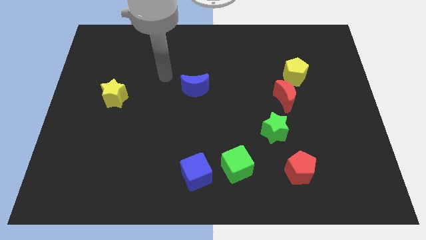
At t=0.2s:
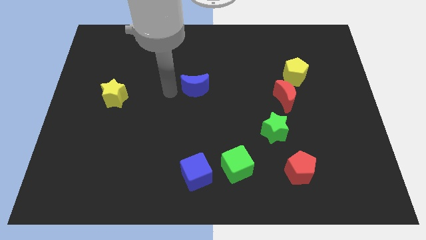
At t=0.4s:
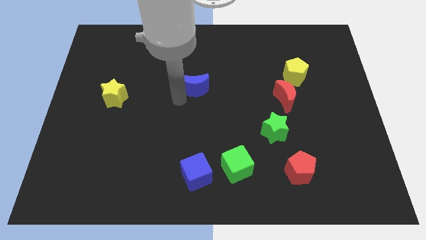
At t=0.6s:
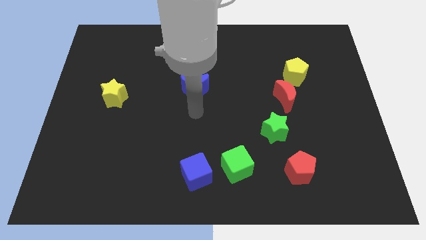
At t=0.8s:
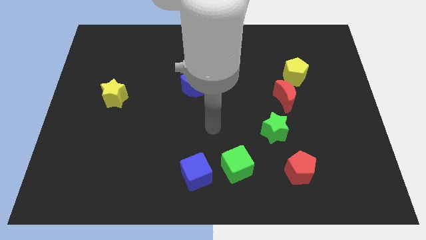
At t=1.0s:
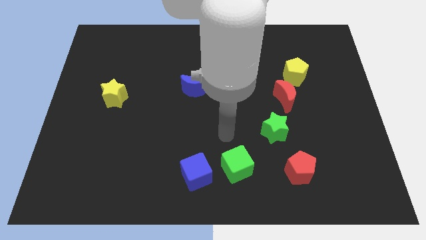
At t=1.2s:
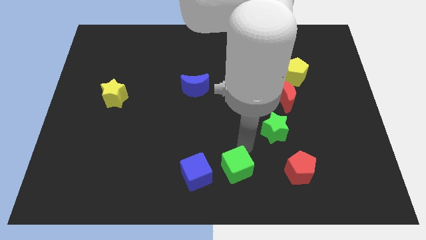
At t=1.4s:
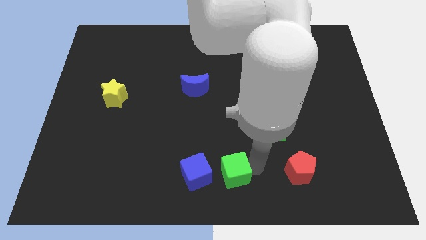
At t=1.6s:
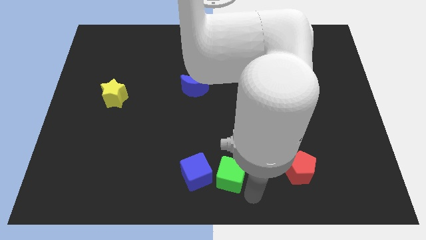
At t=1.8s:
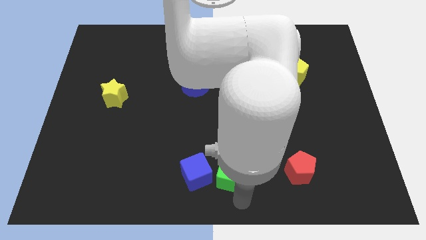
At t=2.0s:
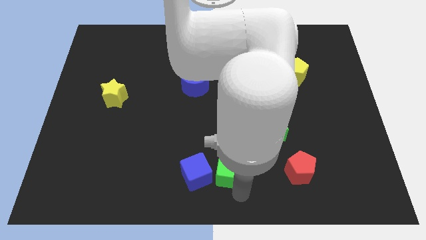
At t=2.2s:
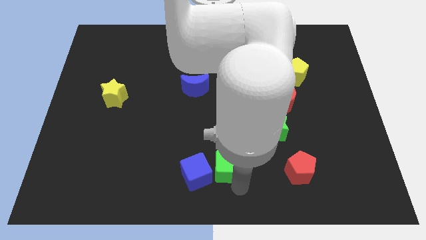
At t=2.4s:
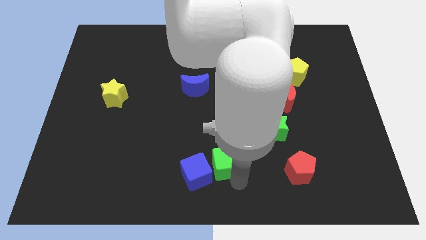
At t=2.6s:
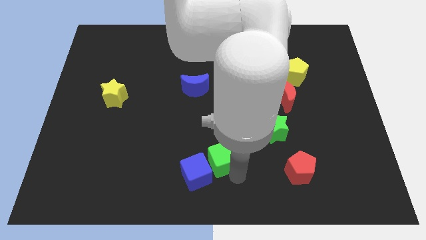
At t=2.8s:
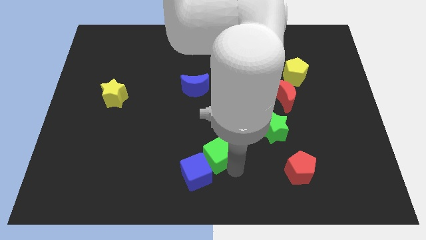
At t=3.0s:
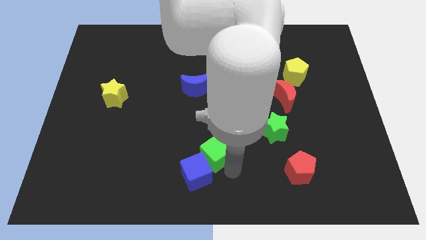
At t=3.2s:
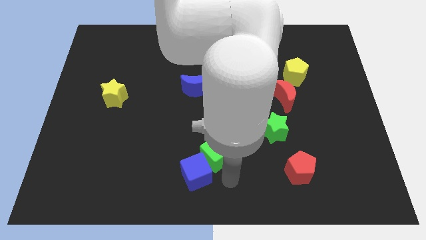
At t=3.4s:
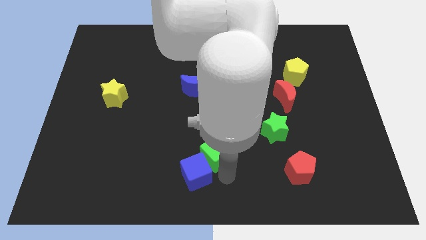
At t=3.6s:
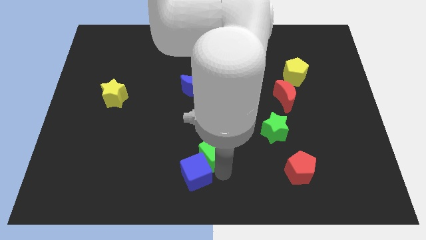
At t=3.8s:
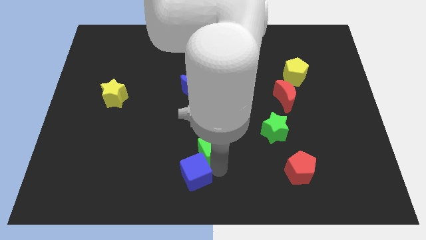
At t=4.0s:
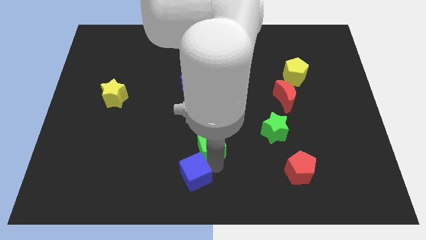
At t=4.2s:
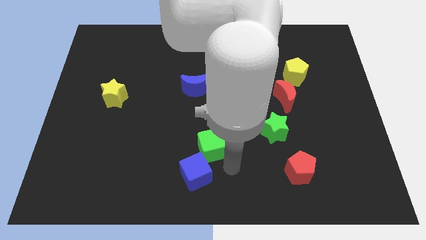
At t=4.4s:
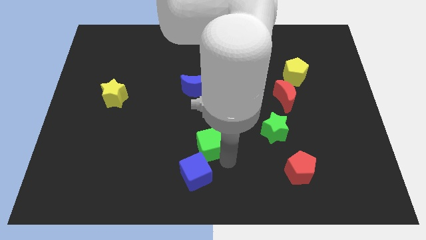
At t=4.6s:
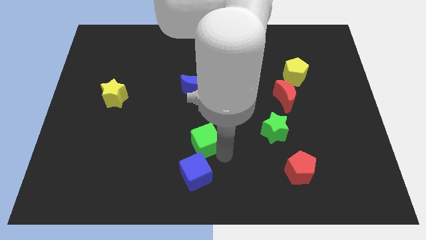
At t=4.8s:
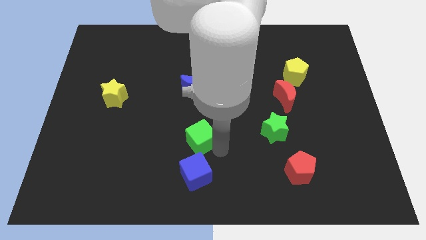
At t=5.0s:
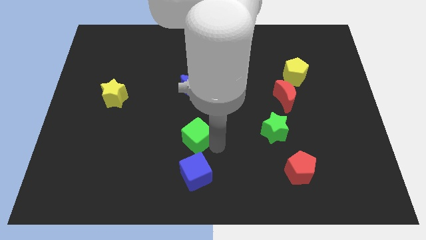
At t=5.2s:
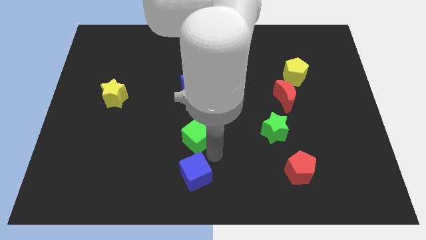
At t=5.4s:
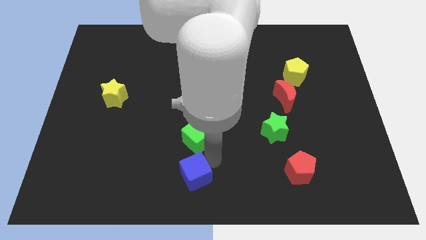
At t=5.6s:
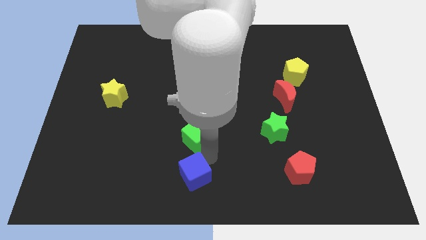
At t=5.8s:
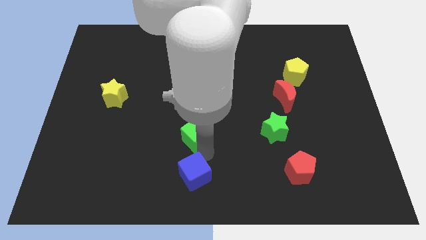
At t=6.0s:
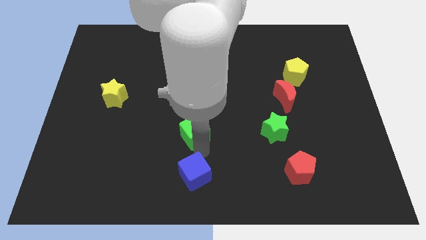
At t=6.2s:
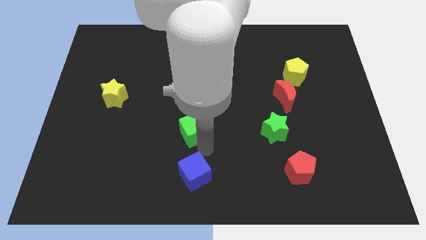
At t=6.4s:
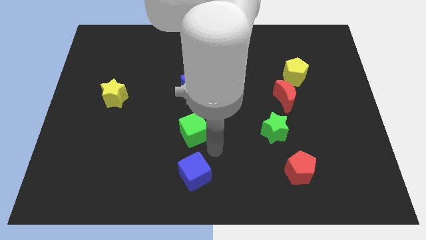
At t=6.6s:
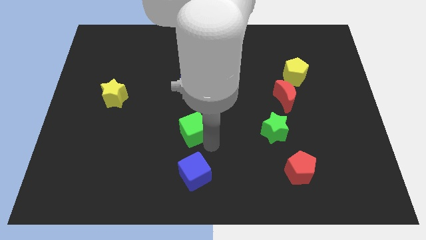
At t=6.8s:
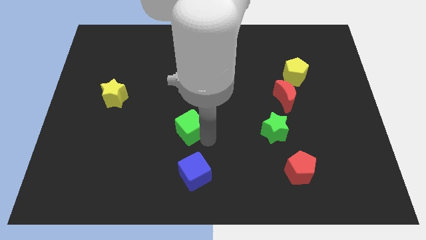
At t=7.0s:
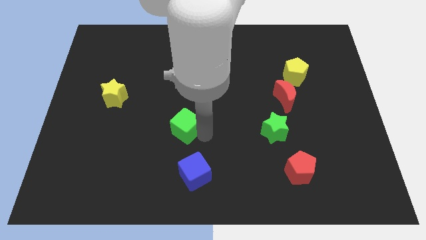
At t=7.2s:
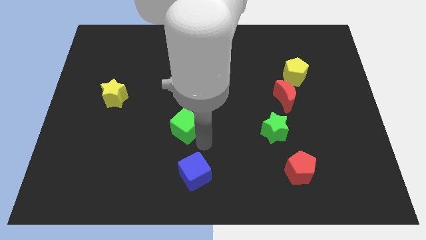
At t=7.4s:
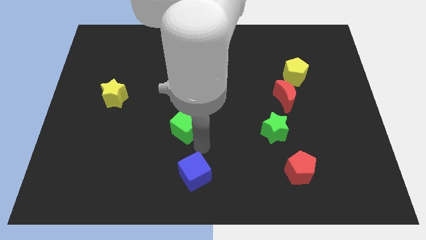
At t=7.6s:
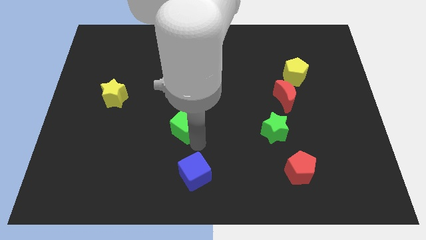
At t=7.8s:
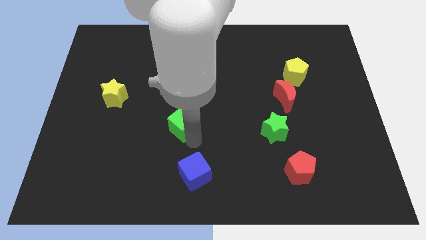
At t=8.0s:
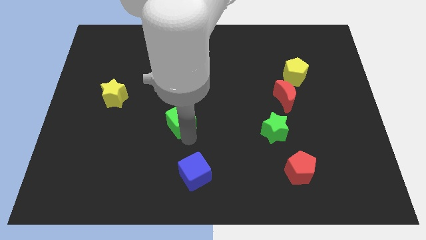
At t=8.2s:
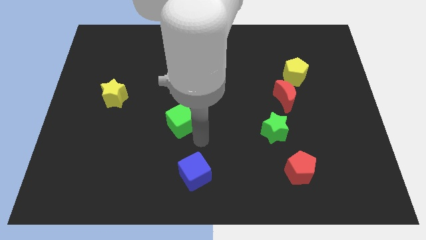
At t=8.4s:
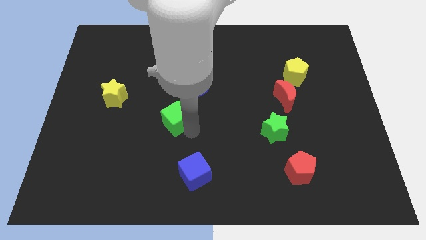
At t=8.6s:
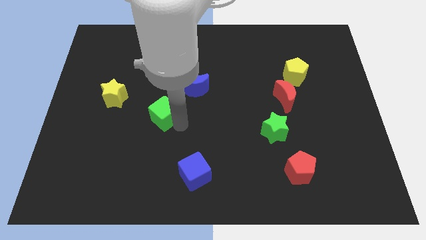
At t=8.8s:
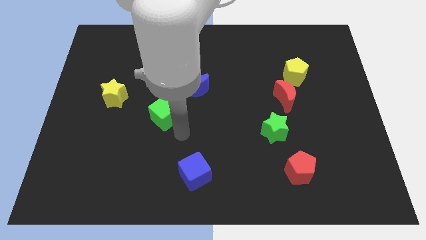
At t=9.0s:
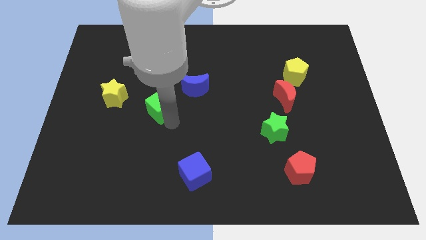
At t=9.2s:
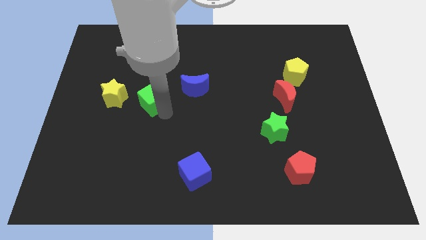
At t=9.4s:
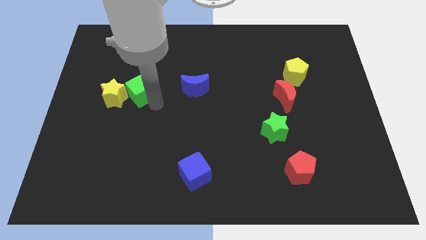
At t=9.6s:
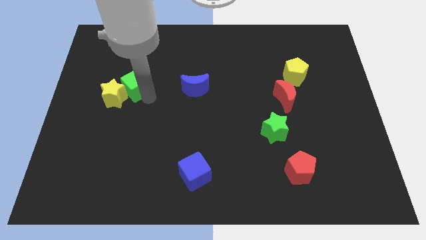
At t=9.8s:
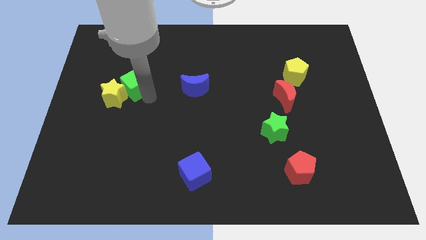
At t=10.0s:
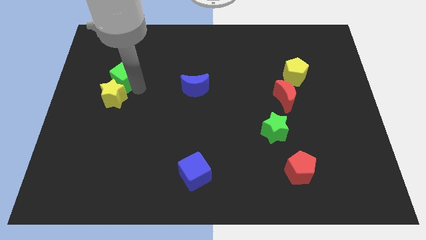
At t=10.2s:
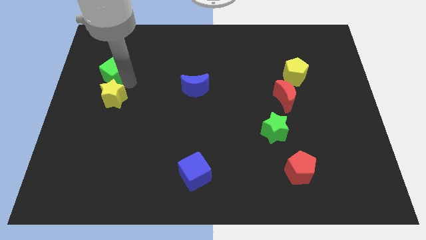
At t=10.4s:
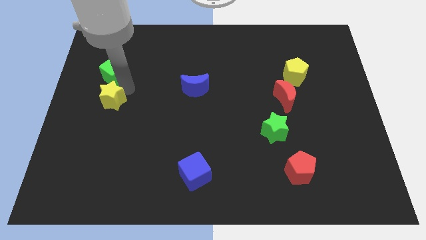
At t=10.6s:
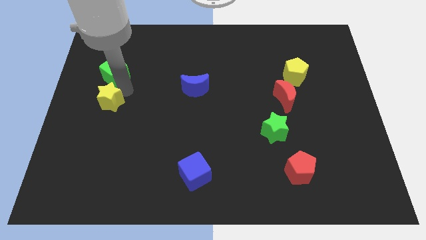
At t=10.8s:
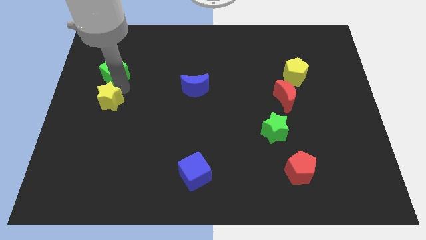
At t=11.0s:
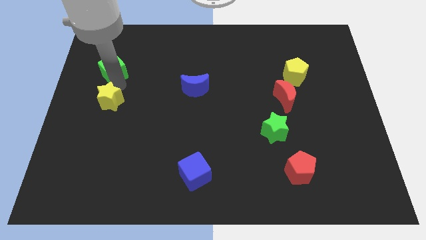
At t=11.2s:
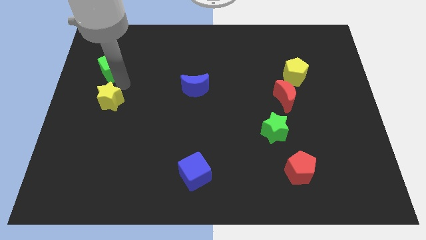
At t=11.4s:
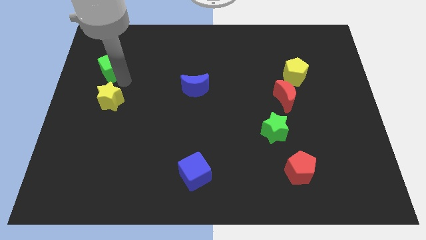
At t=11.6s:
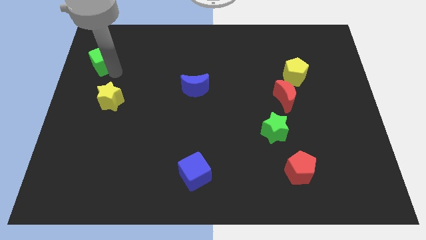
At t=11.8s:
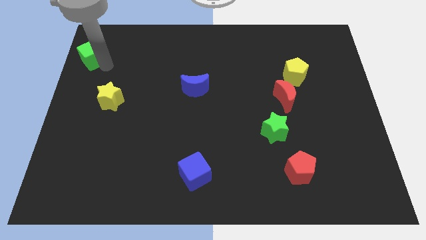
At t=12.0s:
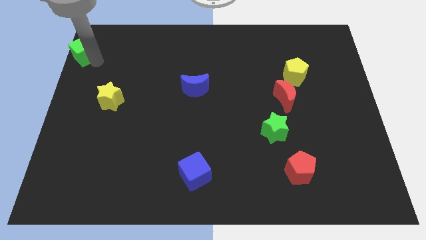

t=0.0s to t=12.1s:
put the green cube to the top left of the board

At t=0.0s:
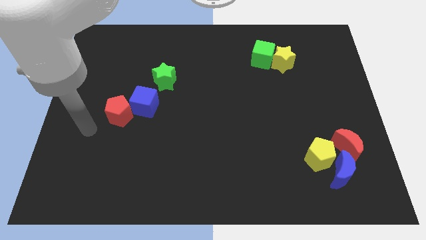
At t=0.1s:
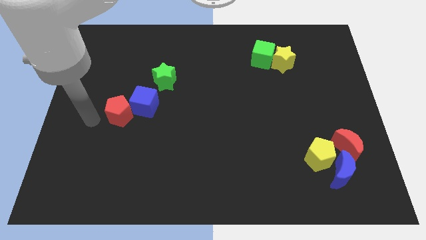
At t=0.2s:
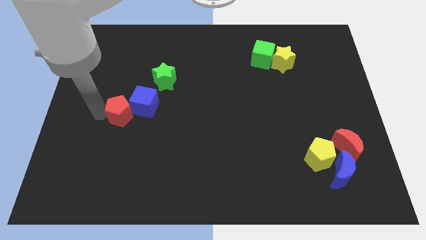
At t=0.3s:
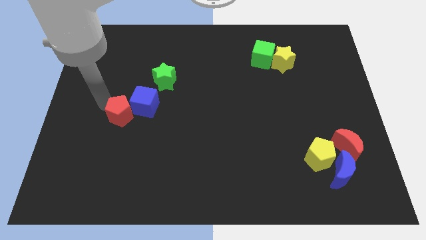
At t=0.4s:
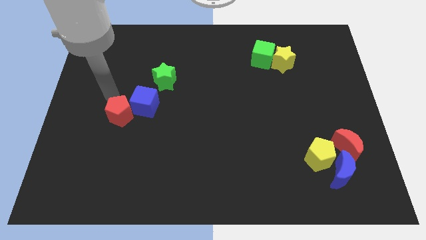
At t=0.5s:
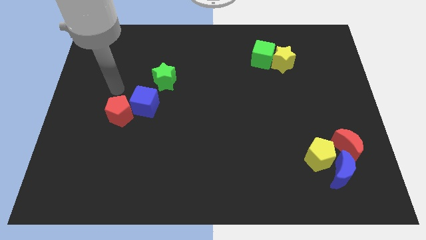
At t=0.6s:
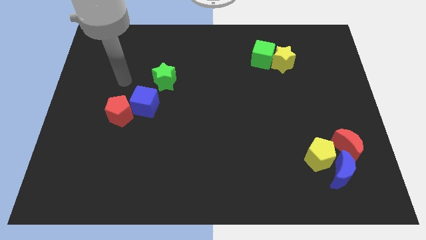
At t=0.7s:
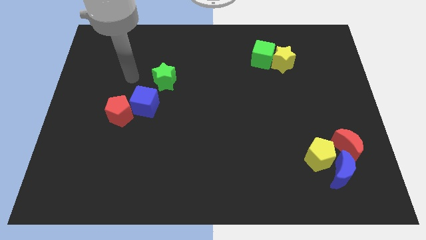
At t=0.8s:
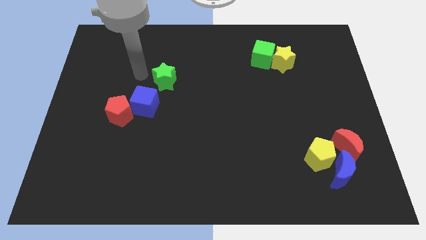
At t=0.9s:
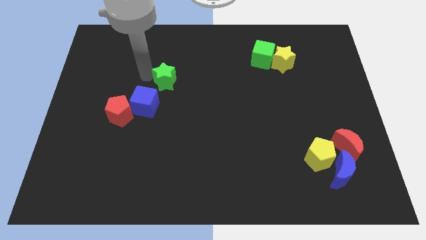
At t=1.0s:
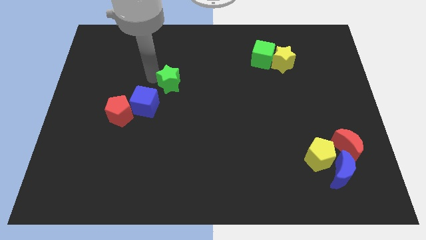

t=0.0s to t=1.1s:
push the green star to the center
